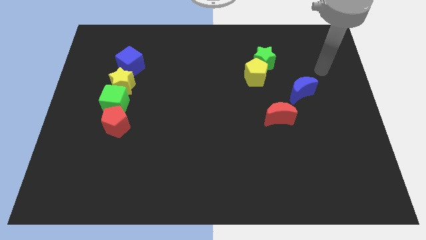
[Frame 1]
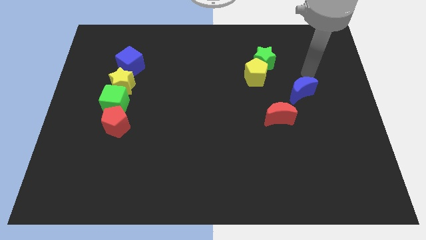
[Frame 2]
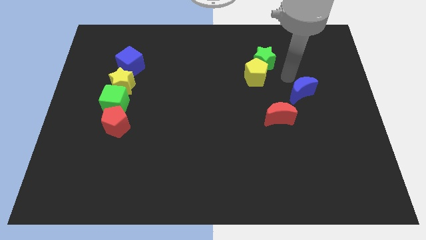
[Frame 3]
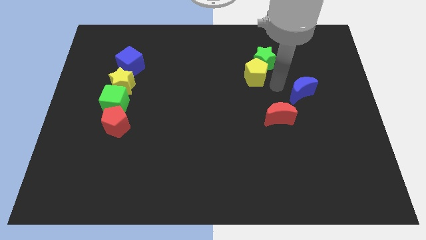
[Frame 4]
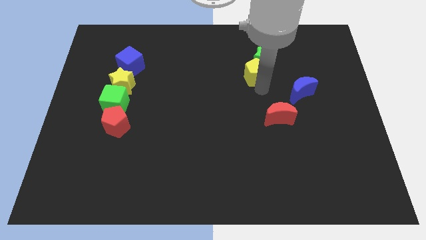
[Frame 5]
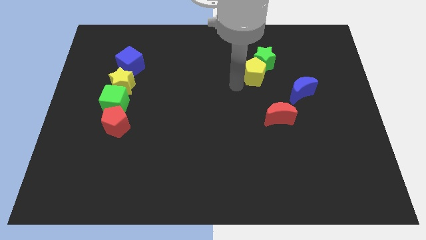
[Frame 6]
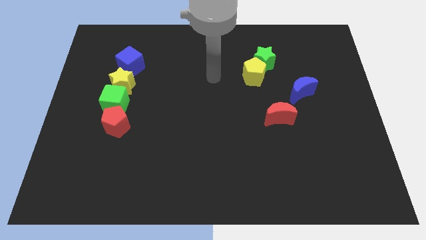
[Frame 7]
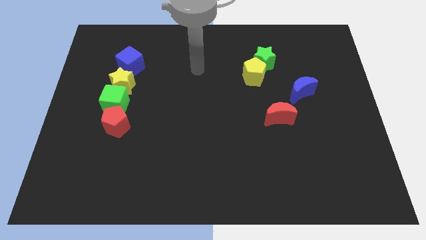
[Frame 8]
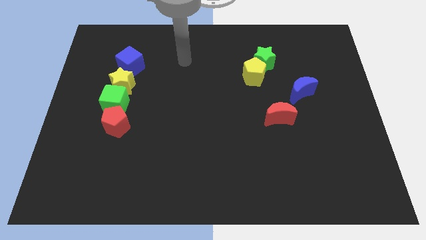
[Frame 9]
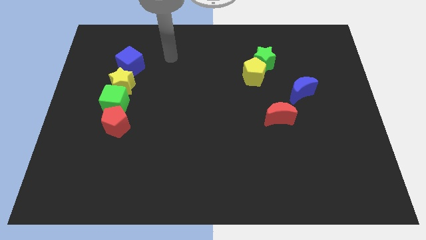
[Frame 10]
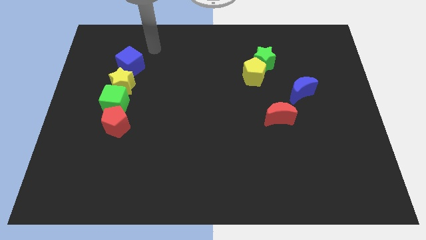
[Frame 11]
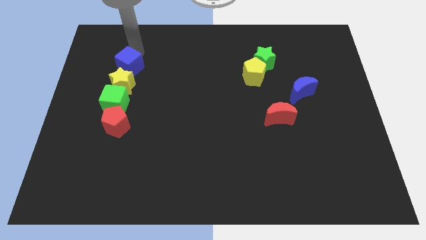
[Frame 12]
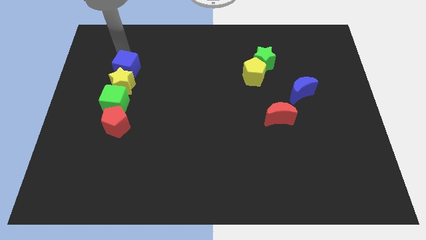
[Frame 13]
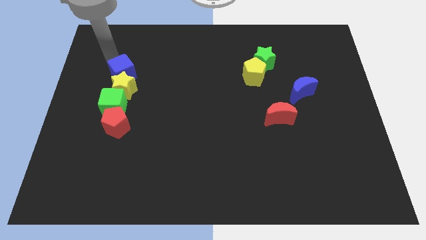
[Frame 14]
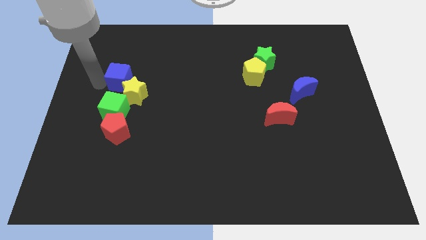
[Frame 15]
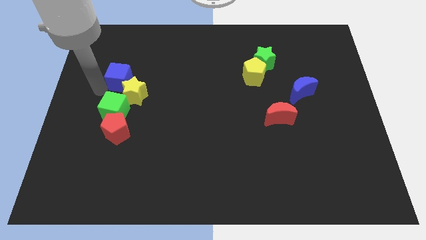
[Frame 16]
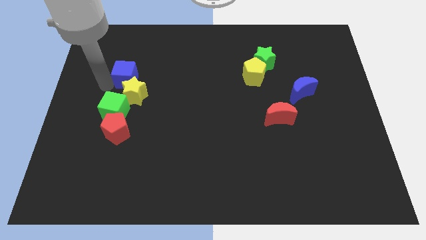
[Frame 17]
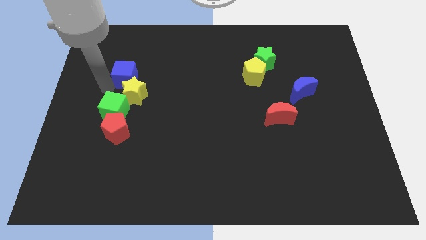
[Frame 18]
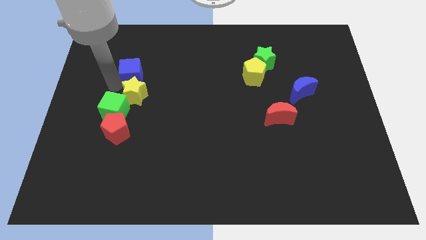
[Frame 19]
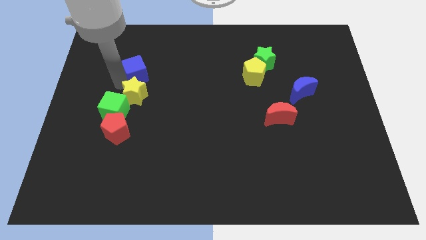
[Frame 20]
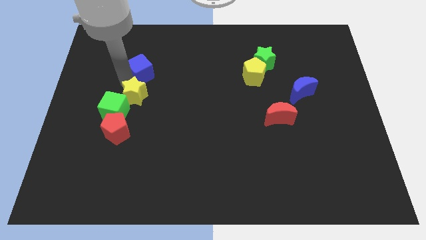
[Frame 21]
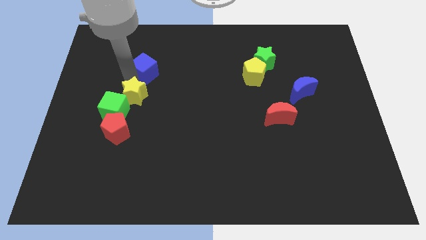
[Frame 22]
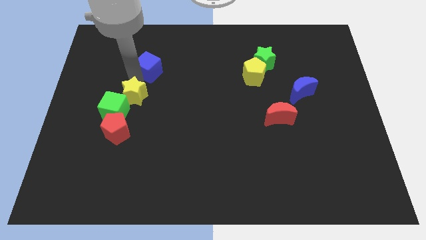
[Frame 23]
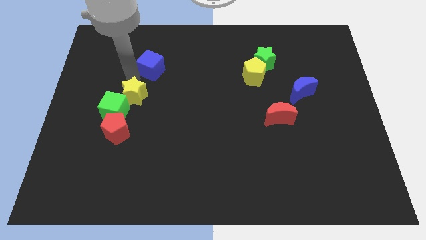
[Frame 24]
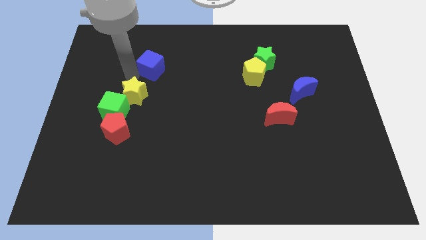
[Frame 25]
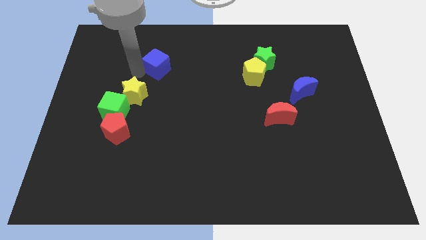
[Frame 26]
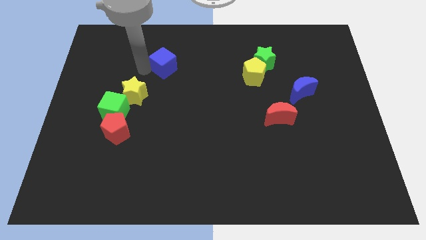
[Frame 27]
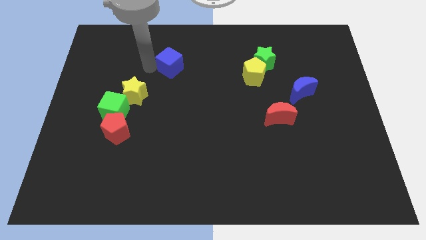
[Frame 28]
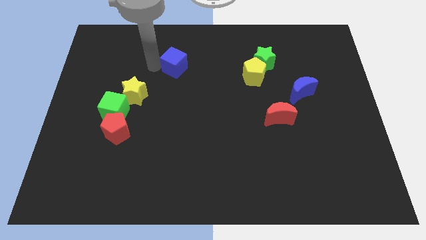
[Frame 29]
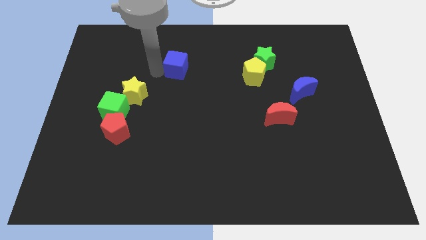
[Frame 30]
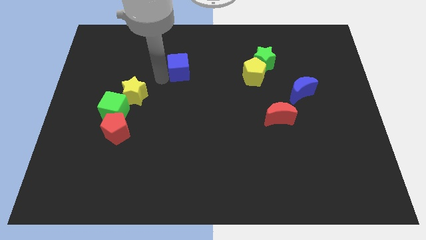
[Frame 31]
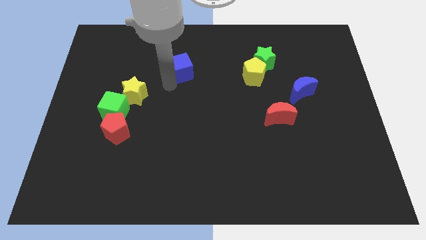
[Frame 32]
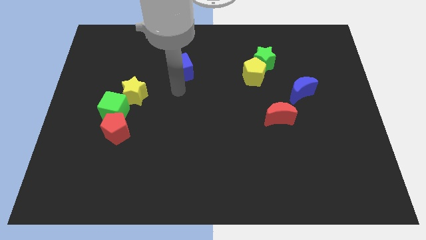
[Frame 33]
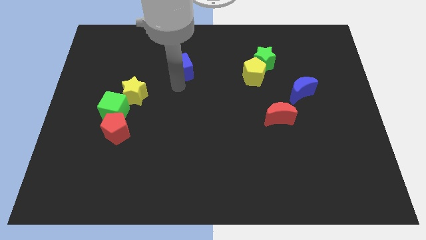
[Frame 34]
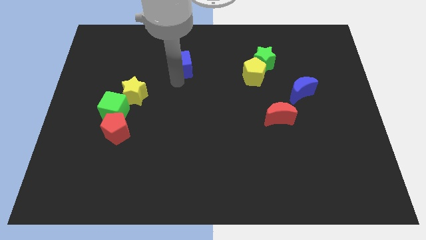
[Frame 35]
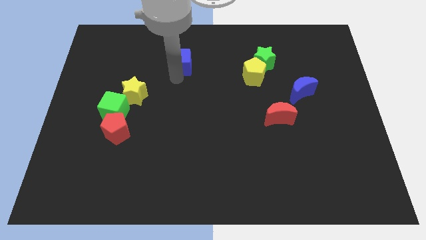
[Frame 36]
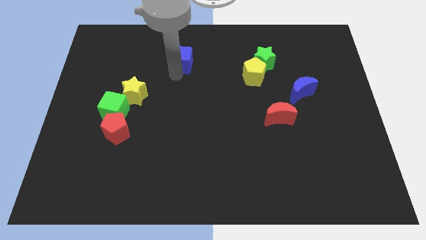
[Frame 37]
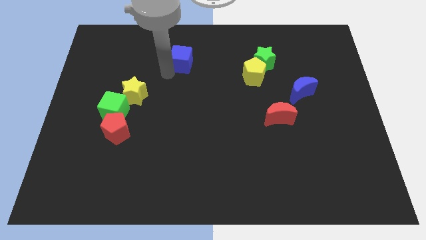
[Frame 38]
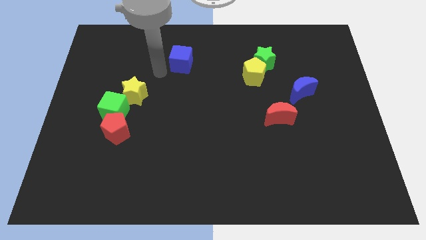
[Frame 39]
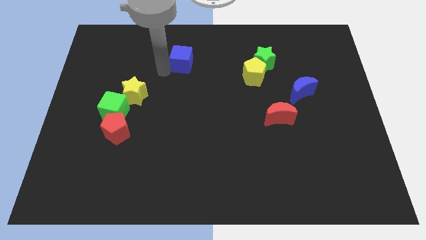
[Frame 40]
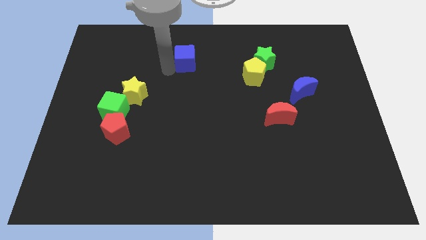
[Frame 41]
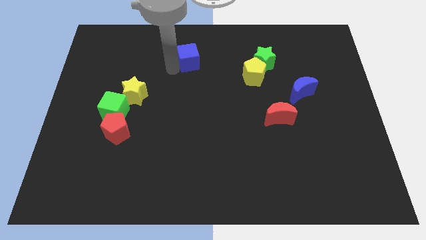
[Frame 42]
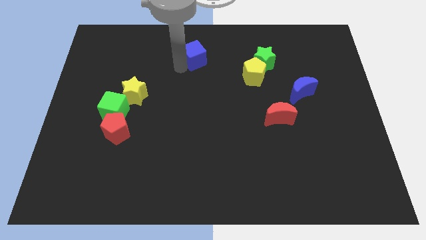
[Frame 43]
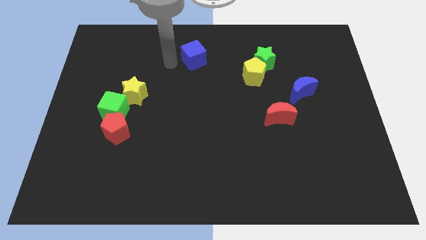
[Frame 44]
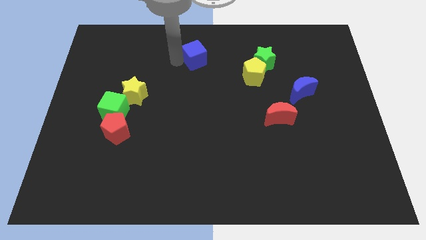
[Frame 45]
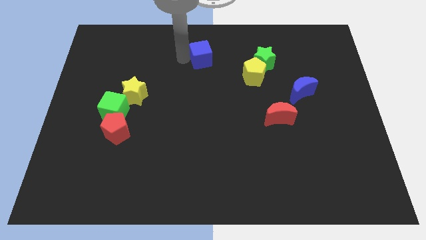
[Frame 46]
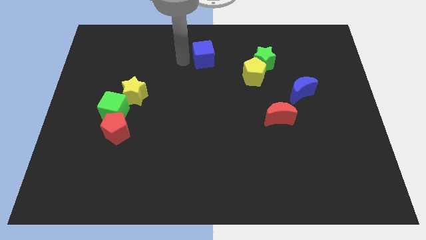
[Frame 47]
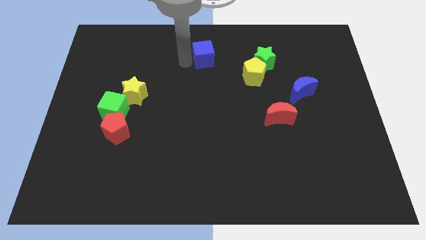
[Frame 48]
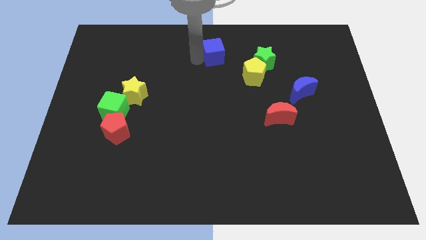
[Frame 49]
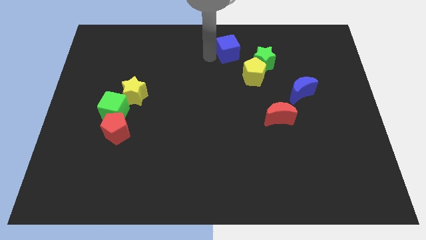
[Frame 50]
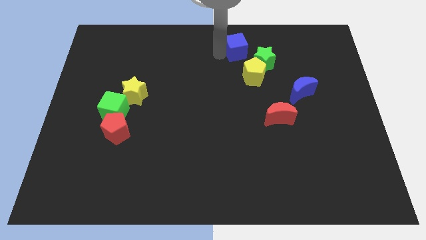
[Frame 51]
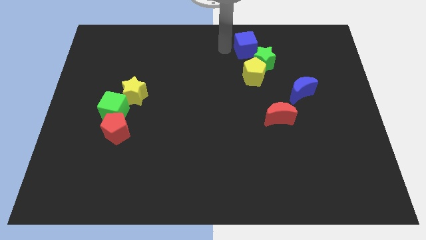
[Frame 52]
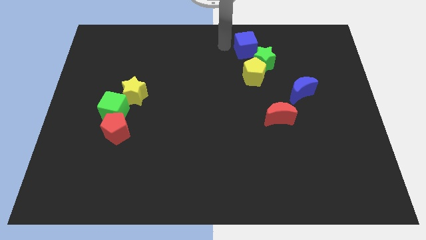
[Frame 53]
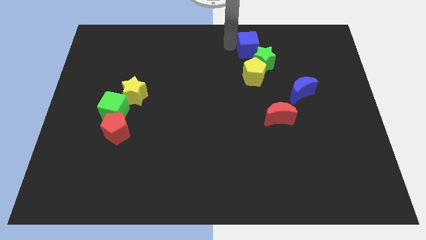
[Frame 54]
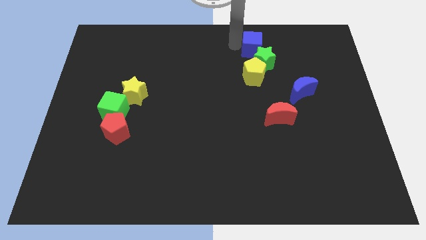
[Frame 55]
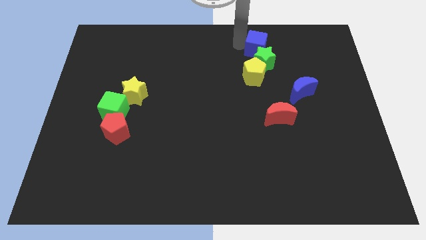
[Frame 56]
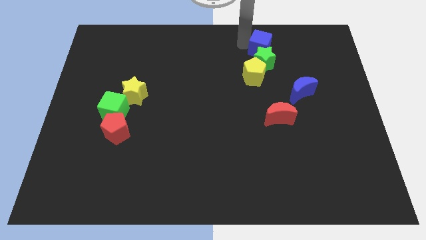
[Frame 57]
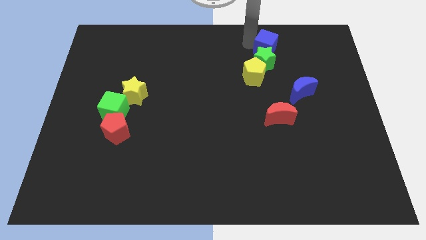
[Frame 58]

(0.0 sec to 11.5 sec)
push the blue cube to the top right of the yellow pentagon
